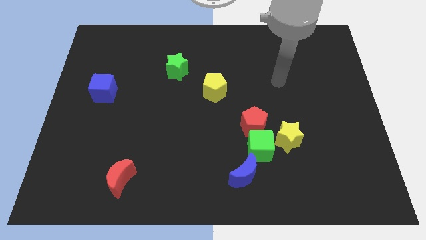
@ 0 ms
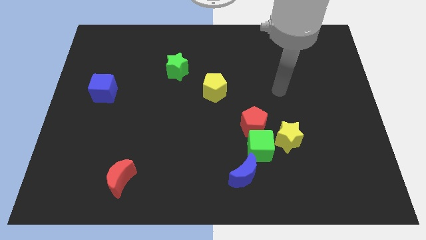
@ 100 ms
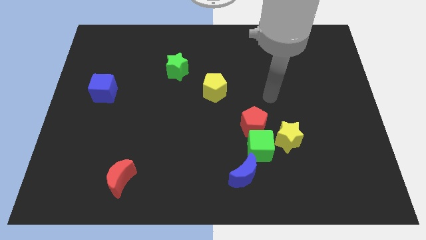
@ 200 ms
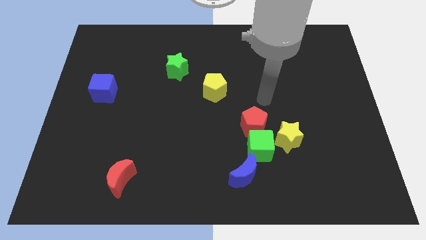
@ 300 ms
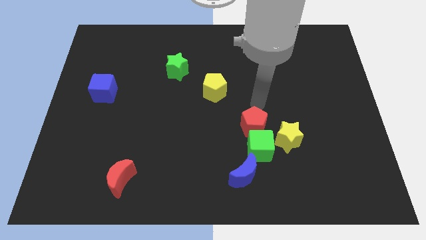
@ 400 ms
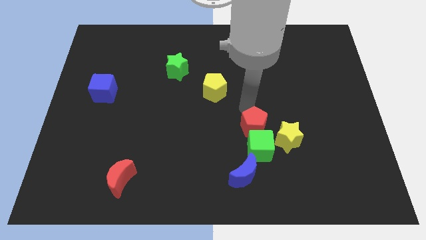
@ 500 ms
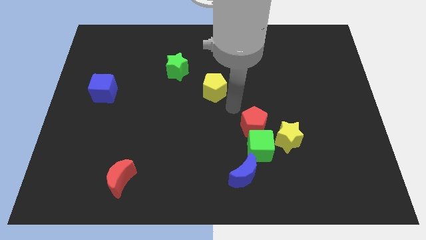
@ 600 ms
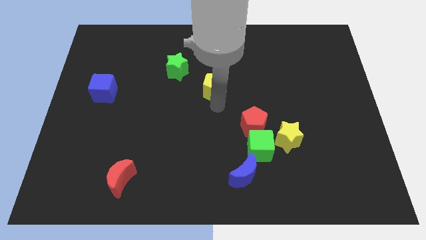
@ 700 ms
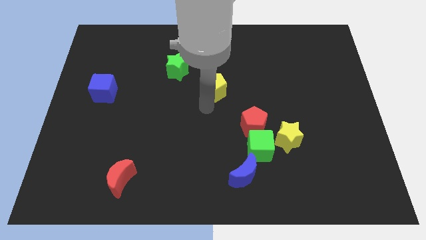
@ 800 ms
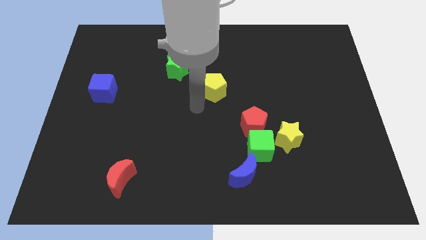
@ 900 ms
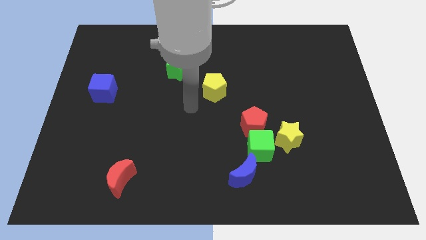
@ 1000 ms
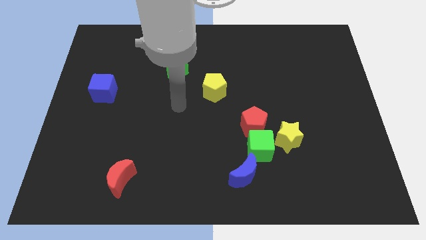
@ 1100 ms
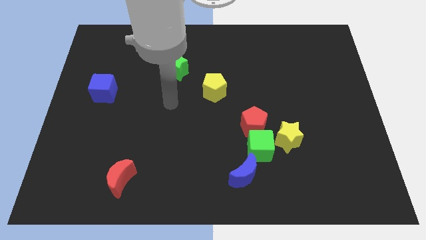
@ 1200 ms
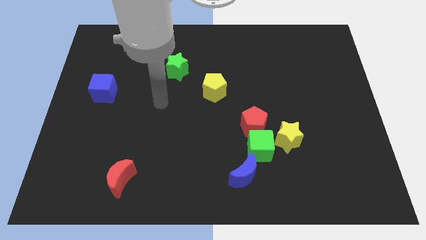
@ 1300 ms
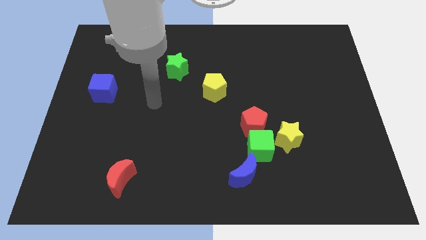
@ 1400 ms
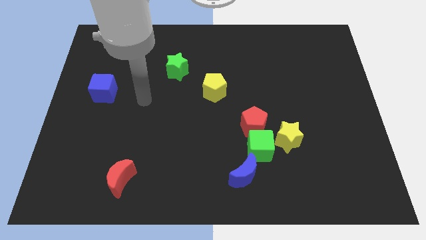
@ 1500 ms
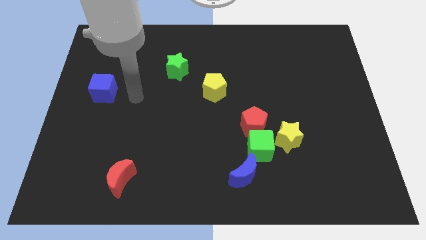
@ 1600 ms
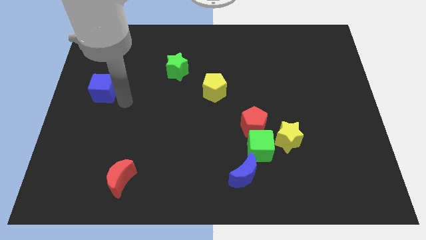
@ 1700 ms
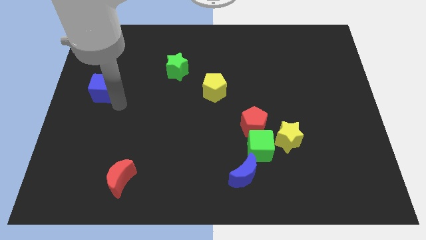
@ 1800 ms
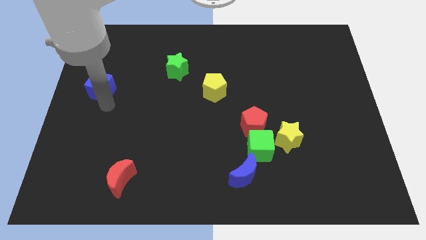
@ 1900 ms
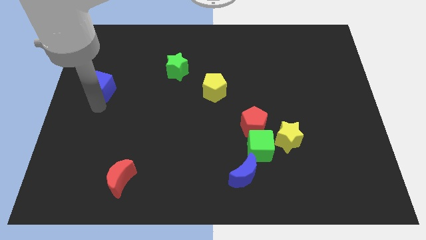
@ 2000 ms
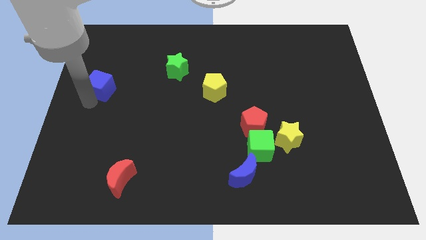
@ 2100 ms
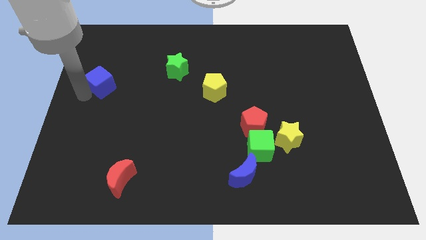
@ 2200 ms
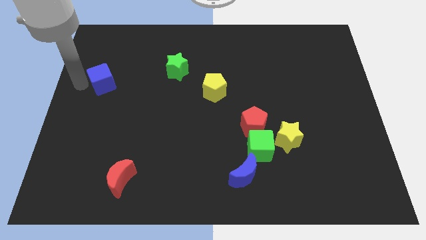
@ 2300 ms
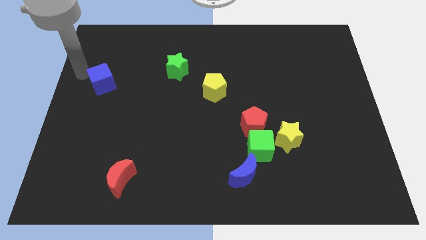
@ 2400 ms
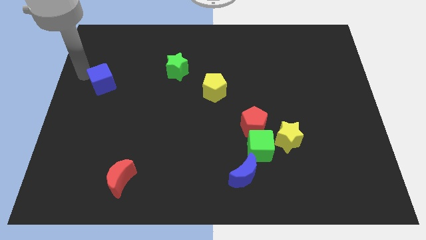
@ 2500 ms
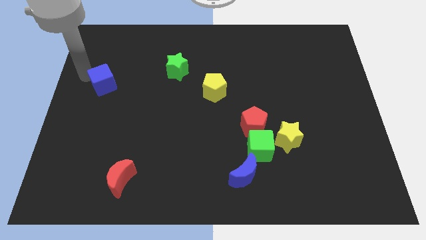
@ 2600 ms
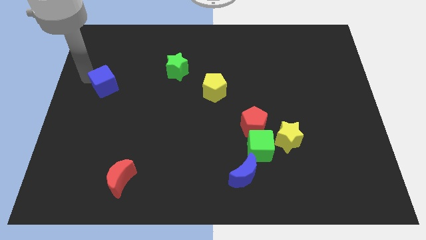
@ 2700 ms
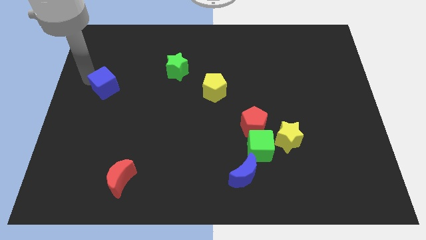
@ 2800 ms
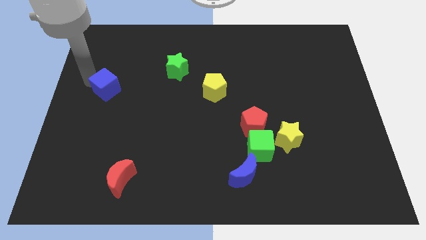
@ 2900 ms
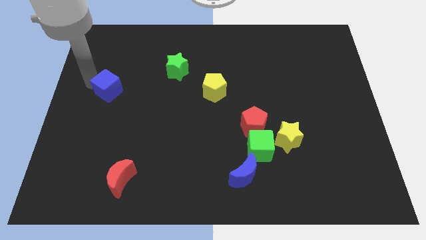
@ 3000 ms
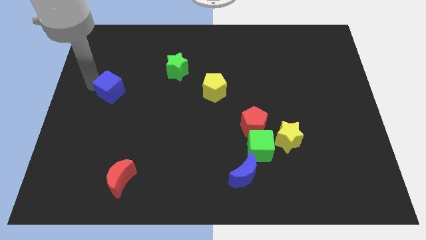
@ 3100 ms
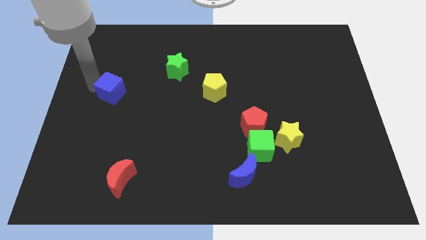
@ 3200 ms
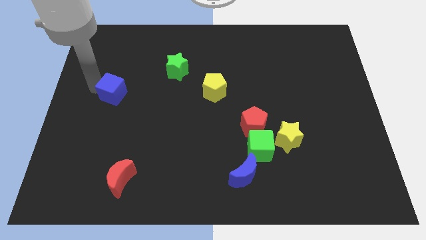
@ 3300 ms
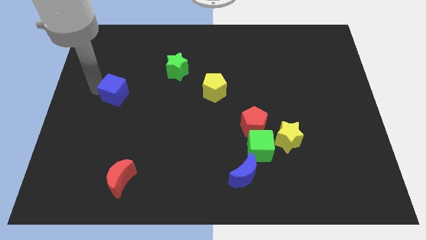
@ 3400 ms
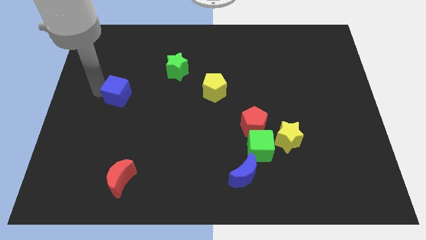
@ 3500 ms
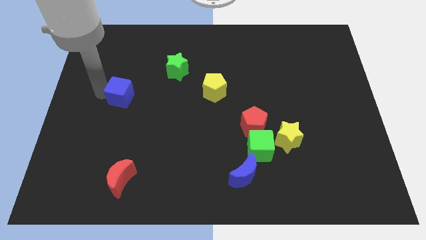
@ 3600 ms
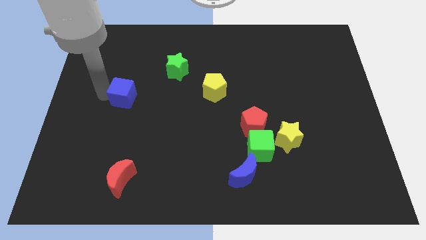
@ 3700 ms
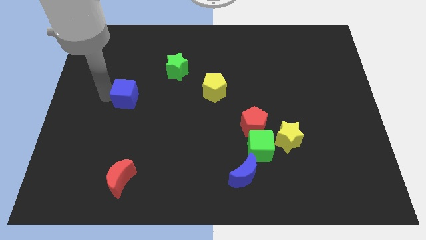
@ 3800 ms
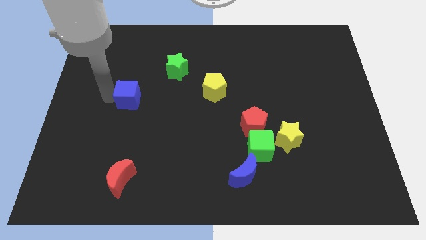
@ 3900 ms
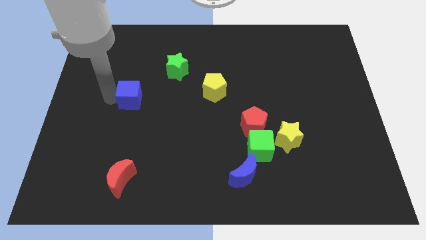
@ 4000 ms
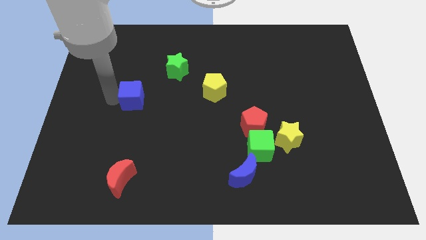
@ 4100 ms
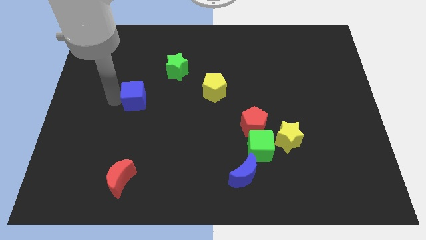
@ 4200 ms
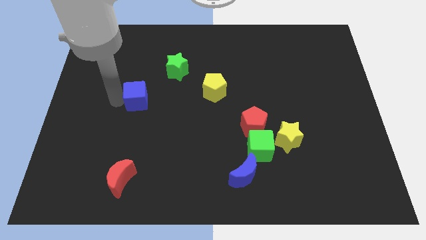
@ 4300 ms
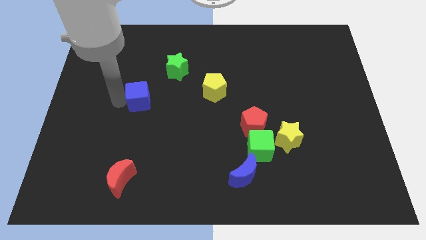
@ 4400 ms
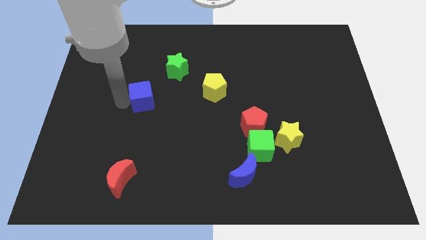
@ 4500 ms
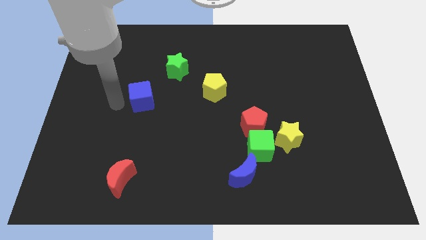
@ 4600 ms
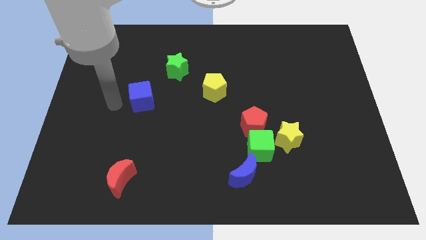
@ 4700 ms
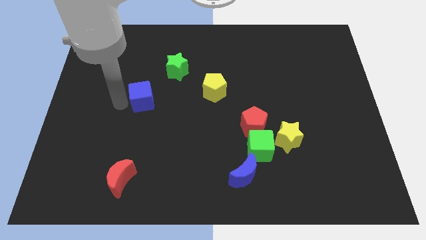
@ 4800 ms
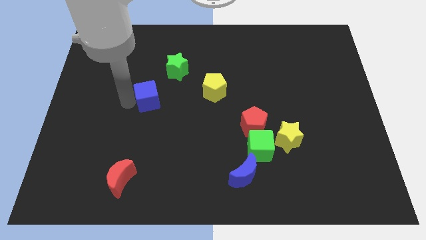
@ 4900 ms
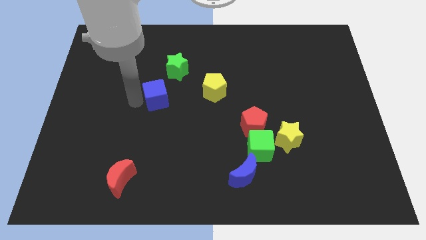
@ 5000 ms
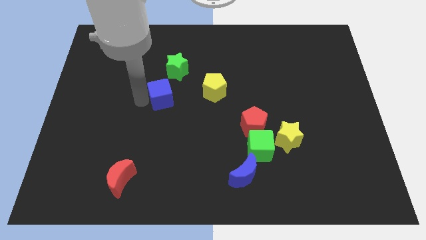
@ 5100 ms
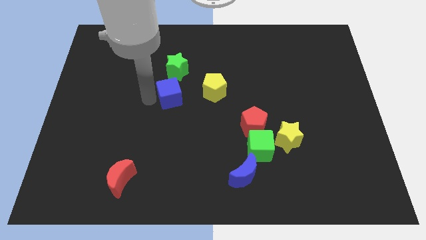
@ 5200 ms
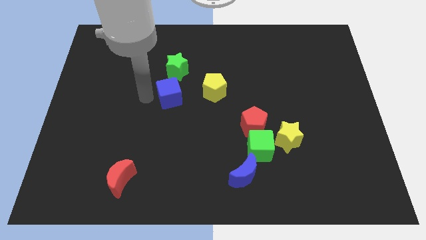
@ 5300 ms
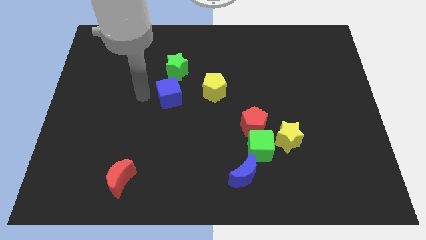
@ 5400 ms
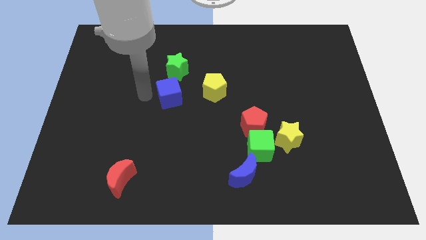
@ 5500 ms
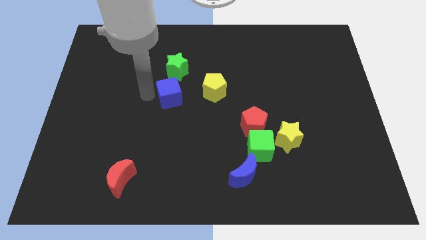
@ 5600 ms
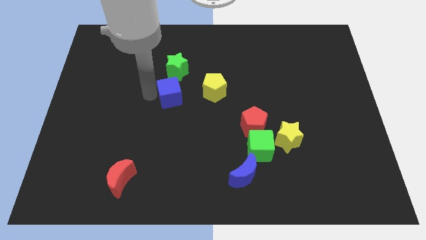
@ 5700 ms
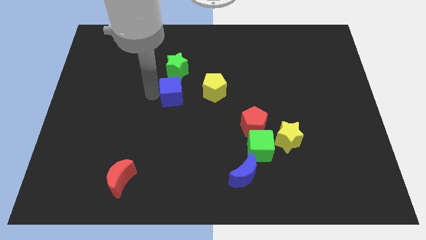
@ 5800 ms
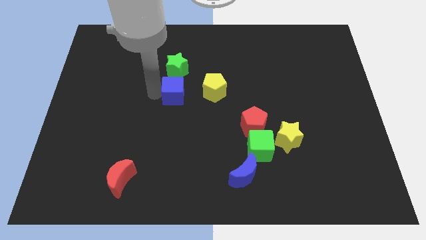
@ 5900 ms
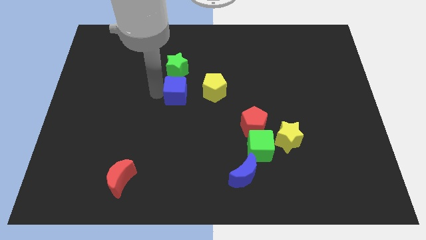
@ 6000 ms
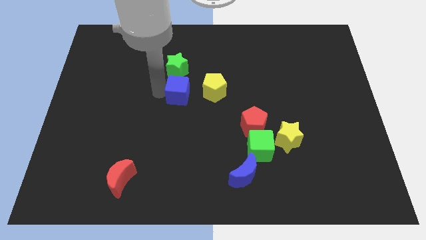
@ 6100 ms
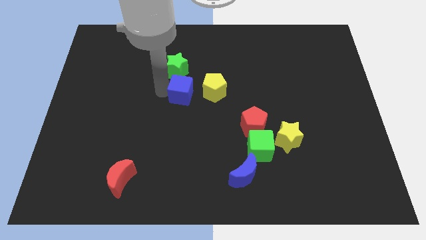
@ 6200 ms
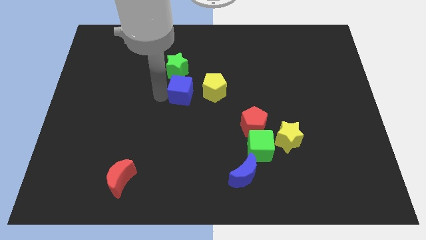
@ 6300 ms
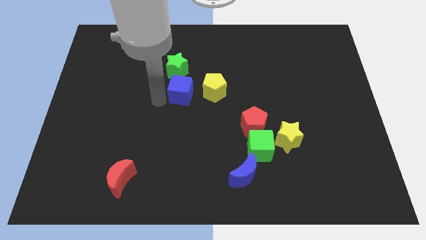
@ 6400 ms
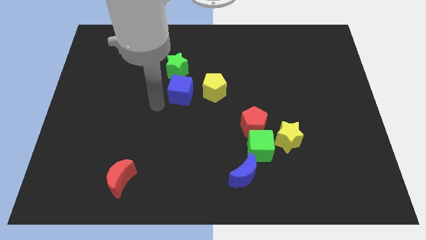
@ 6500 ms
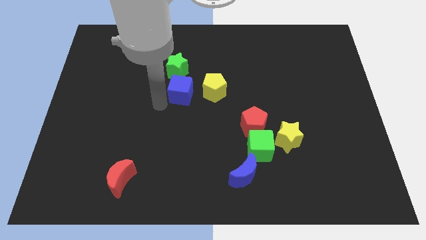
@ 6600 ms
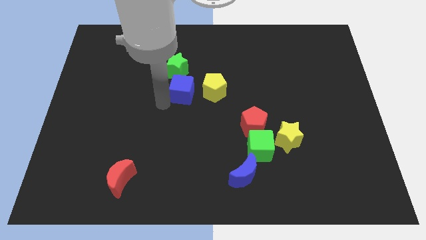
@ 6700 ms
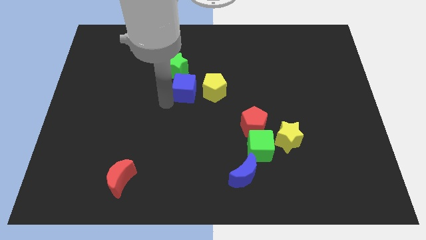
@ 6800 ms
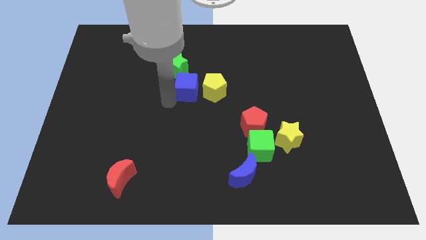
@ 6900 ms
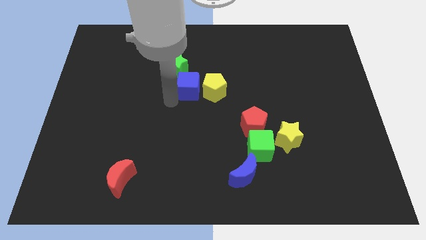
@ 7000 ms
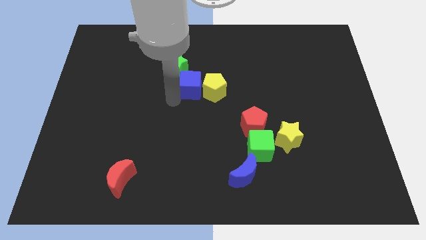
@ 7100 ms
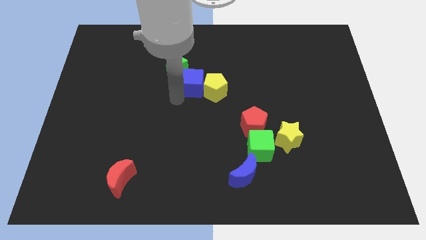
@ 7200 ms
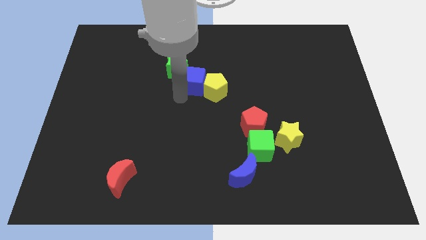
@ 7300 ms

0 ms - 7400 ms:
put the blue cube just right of the green star
